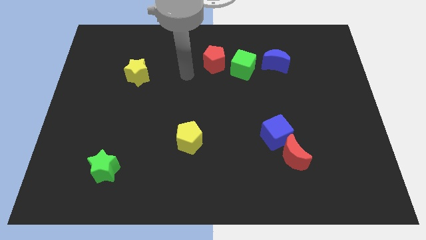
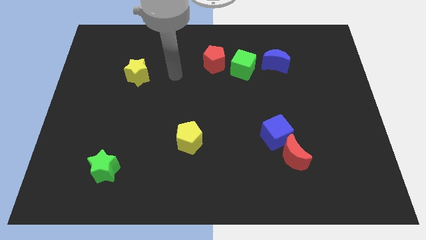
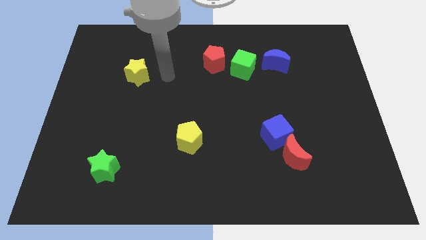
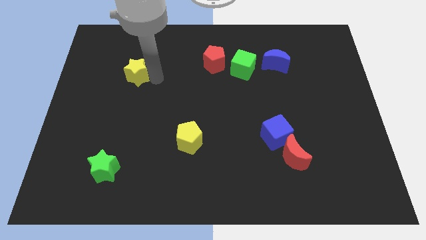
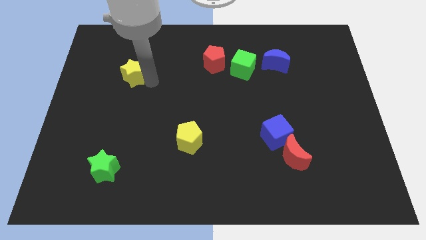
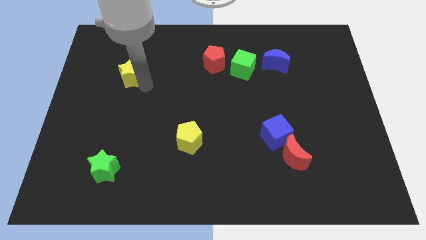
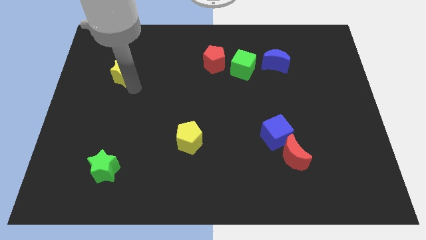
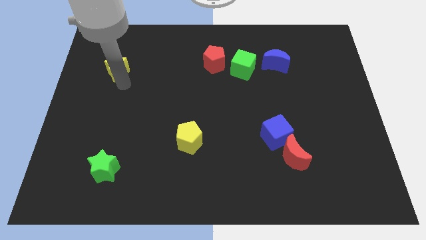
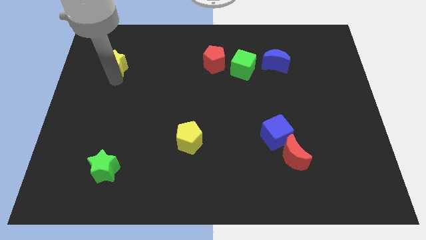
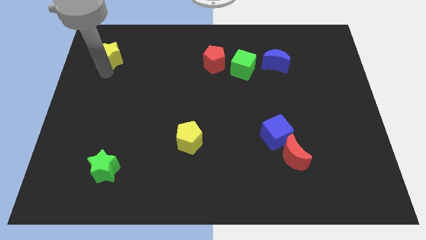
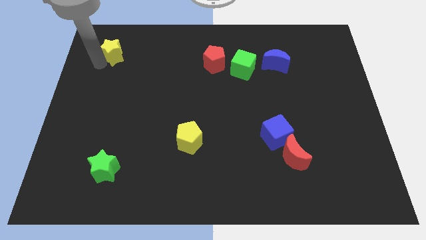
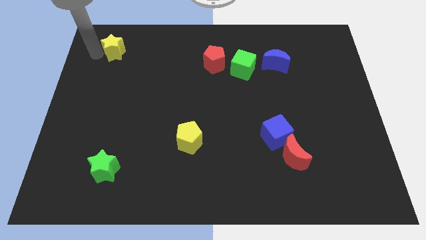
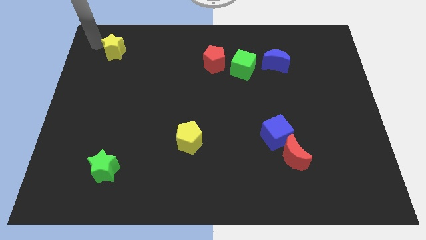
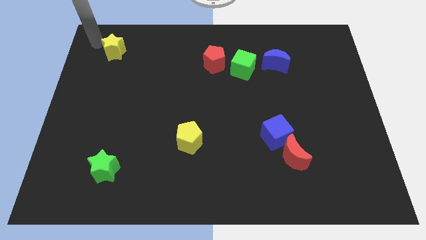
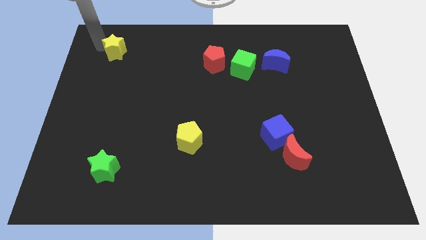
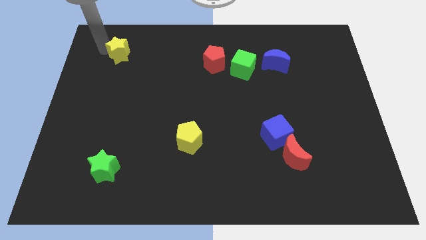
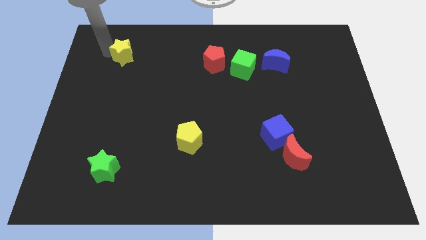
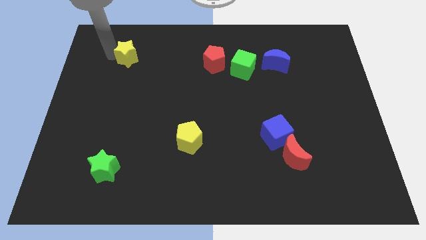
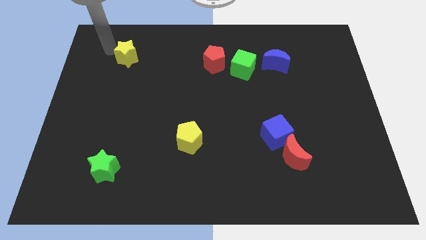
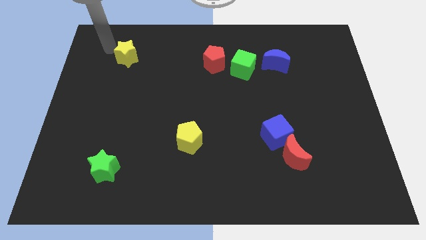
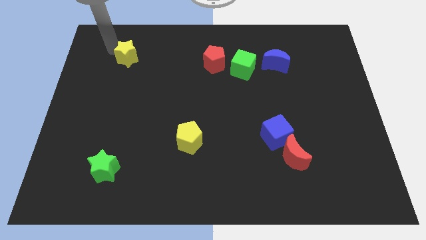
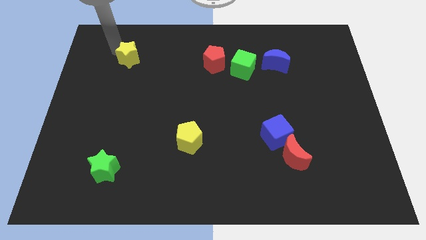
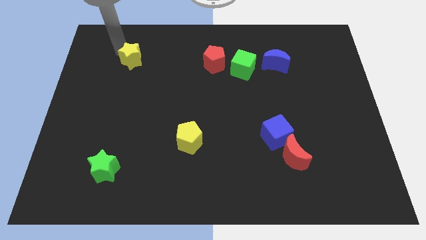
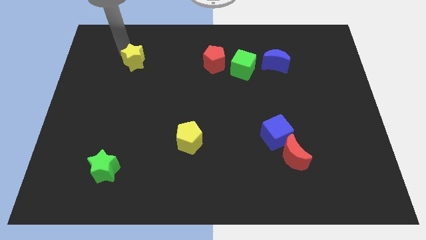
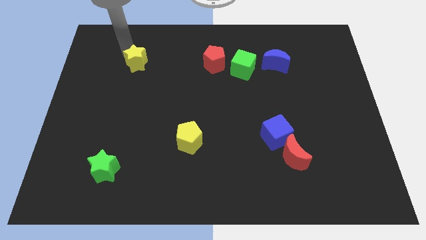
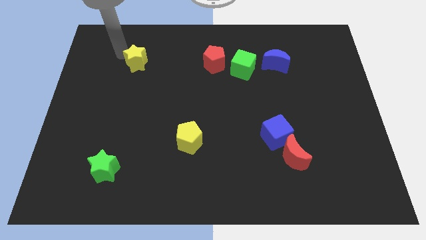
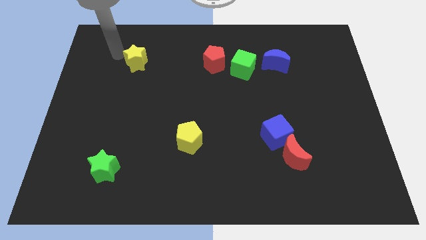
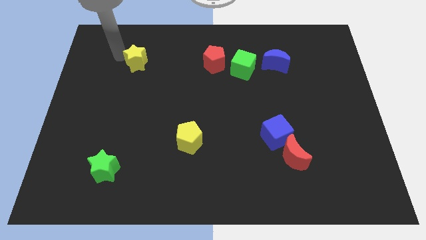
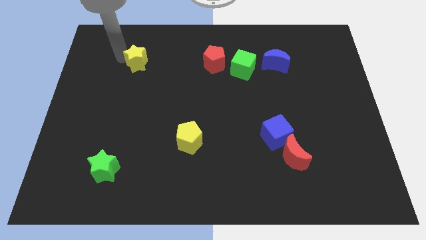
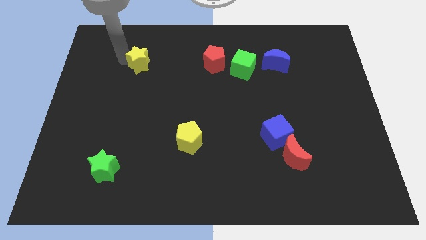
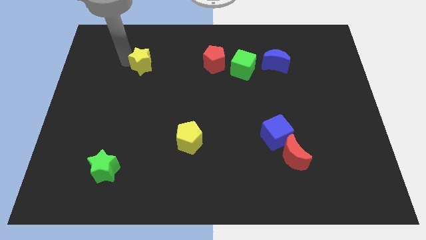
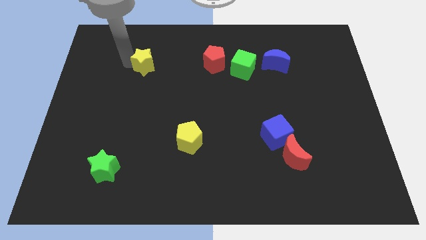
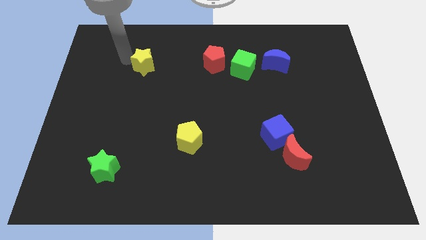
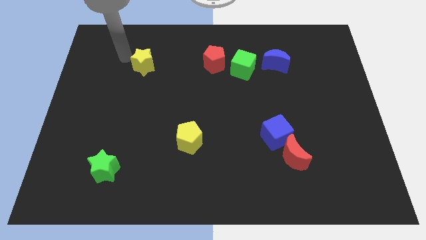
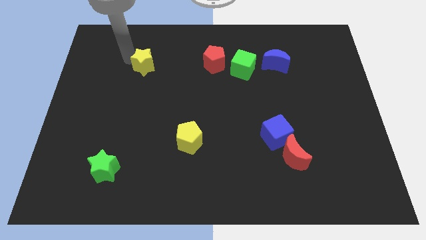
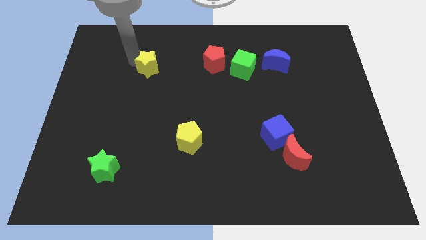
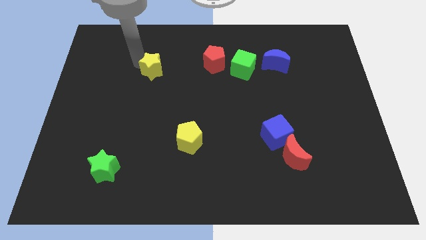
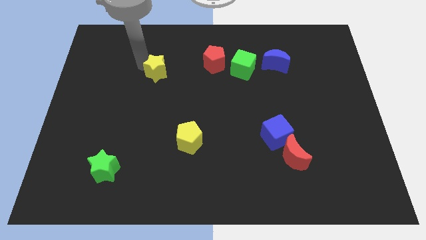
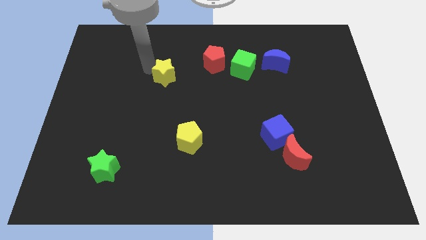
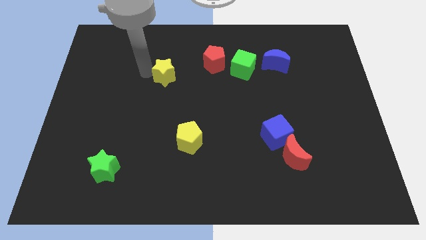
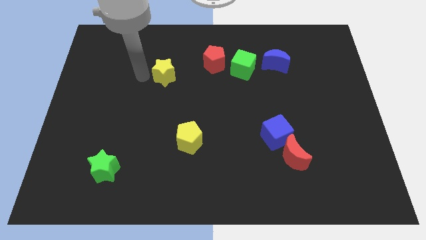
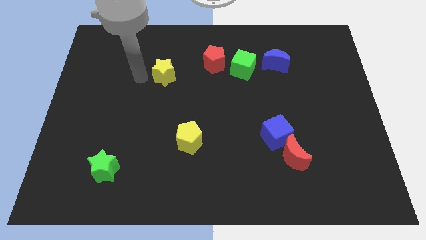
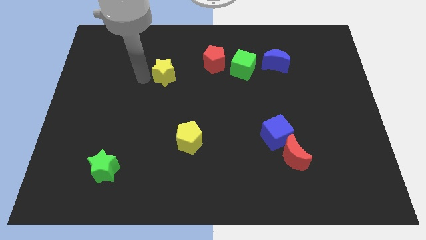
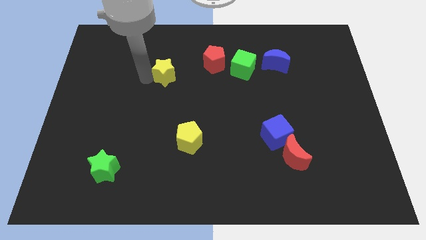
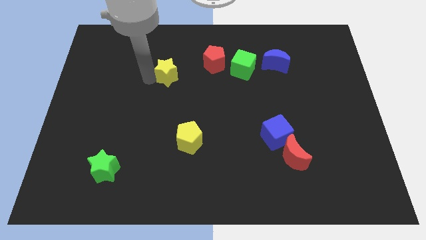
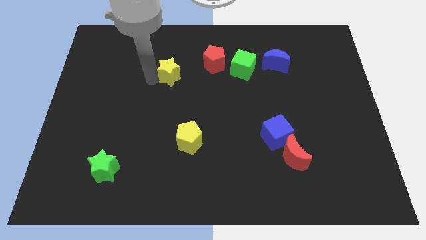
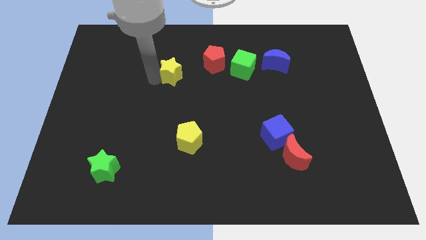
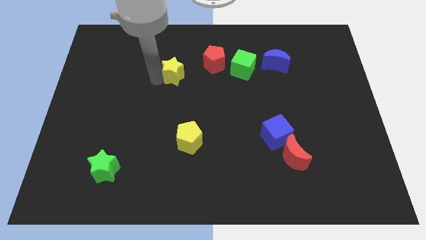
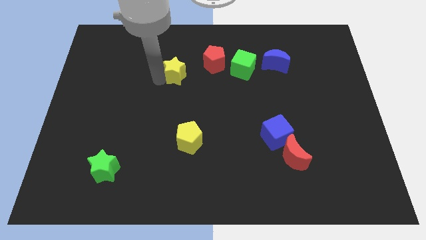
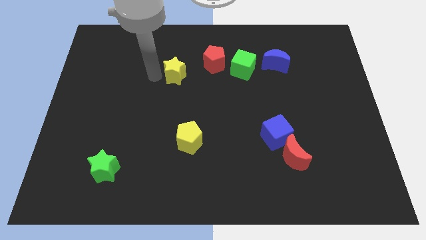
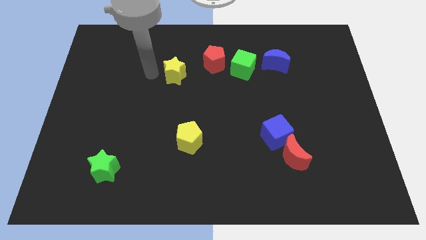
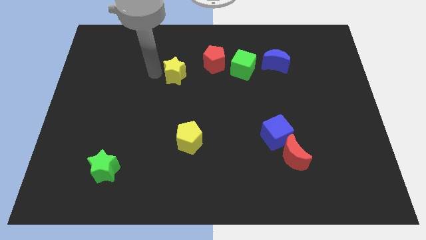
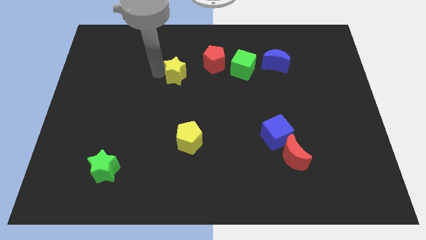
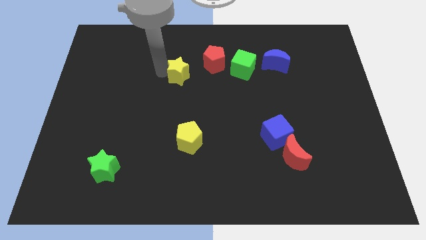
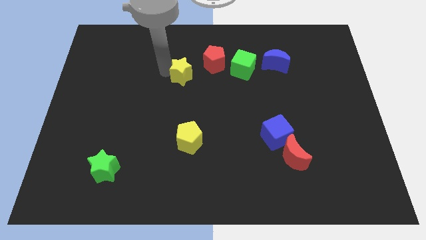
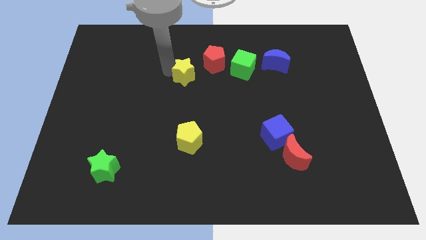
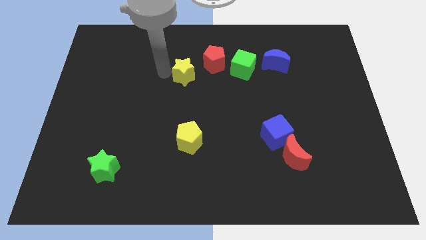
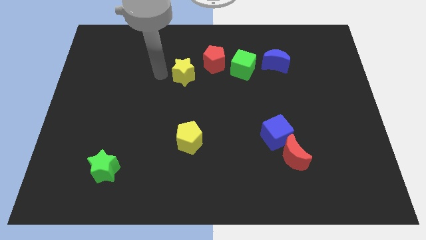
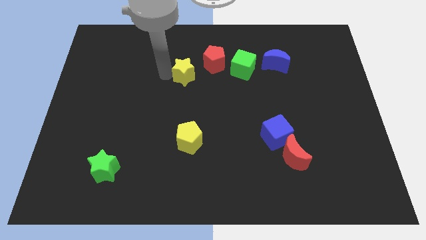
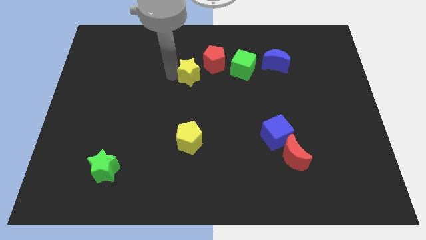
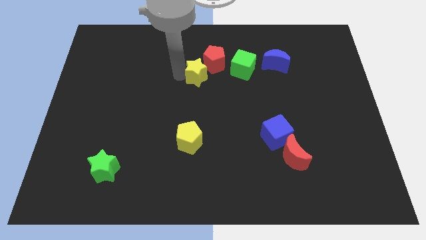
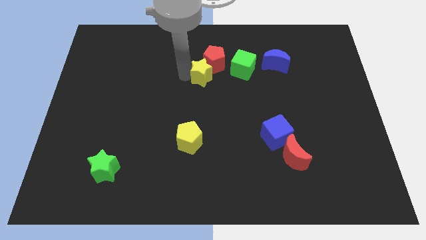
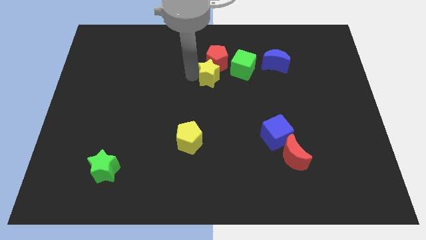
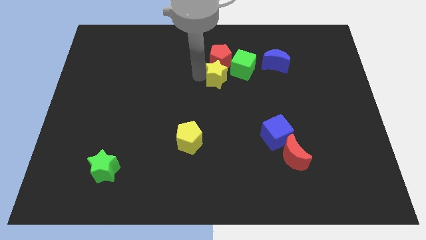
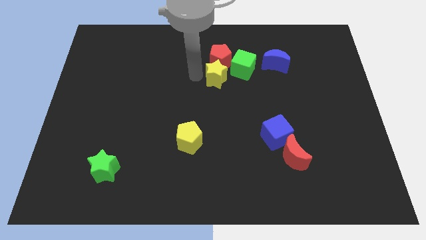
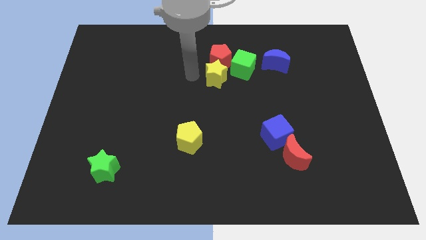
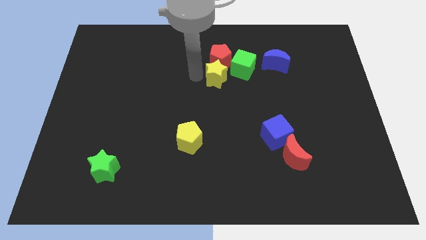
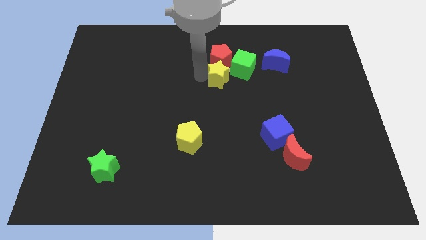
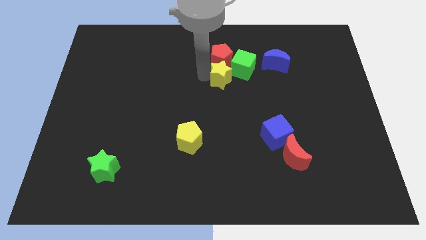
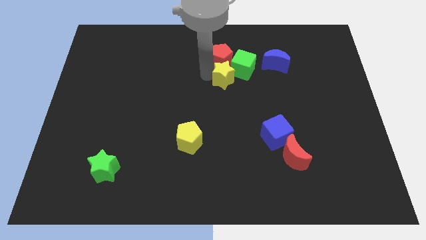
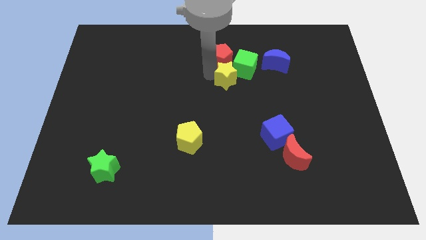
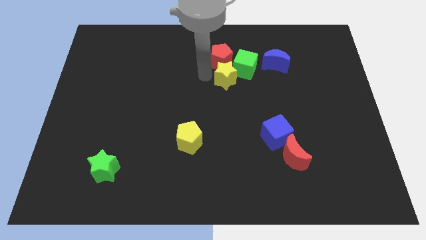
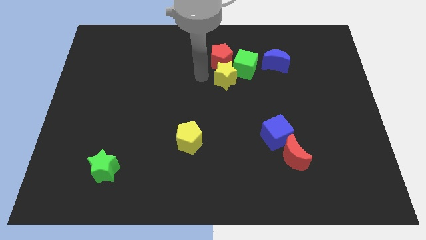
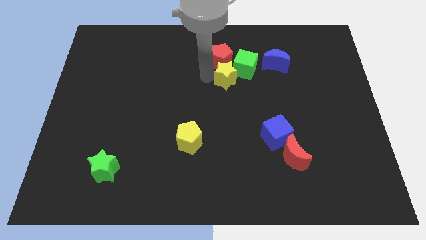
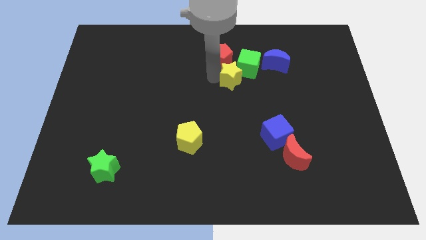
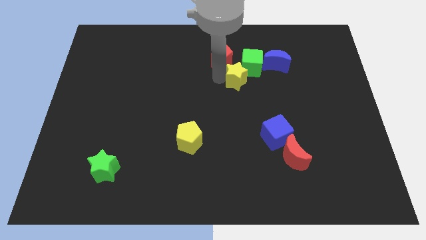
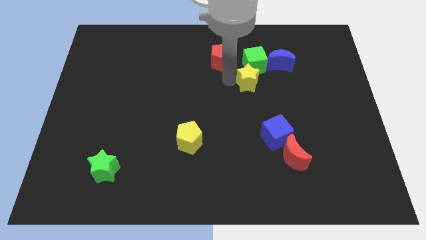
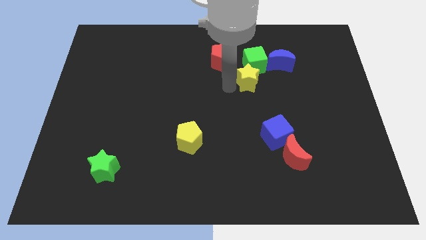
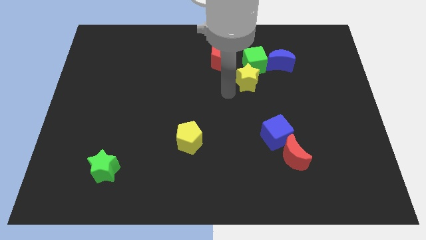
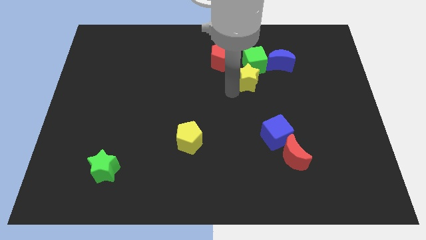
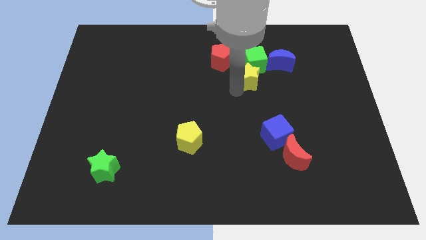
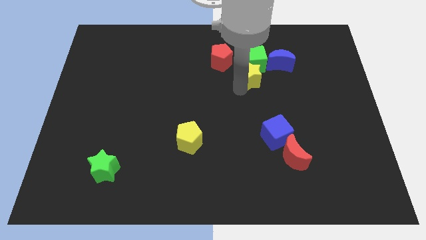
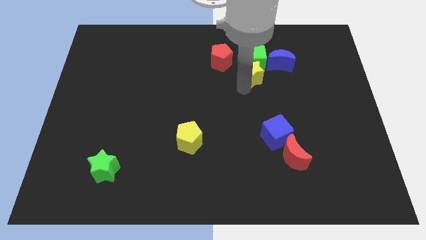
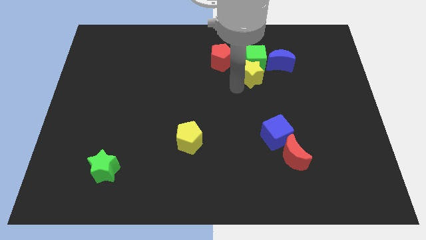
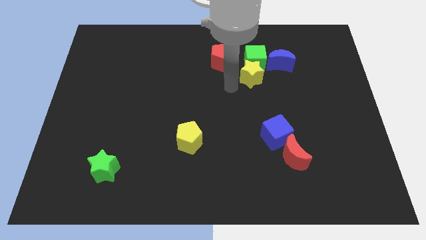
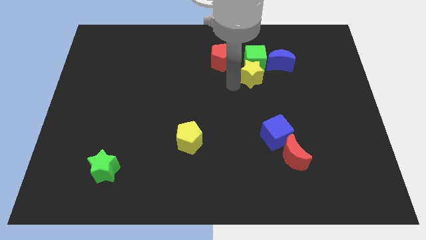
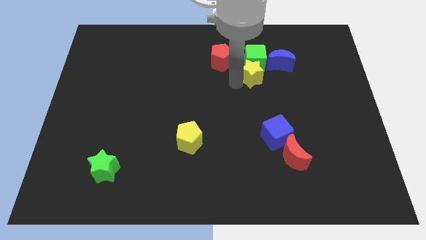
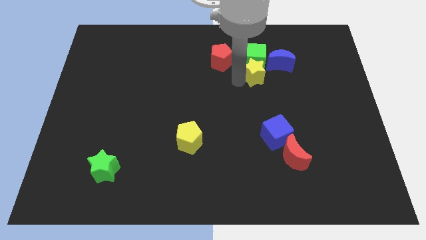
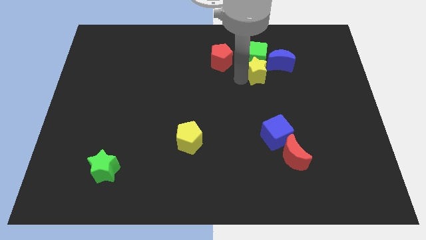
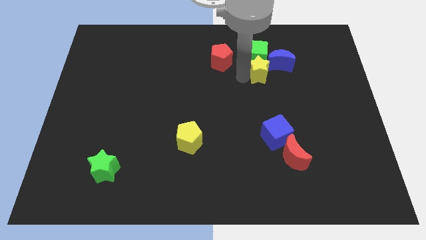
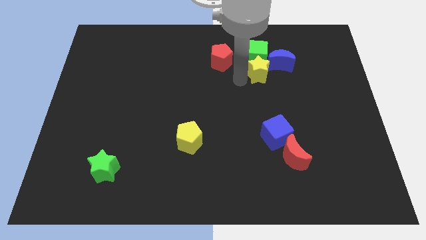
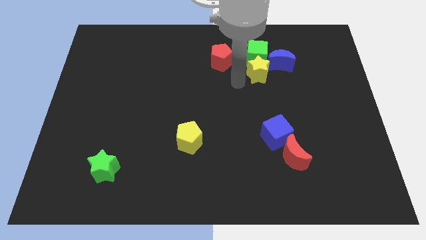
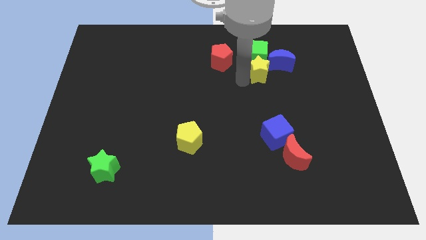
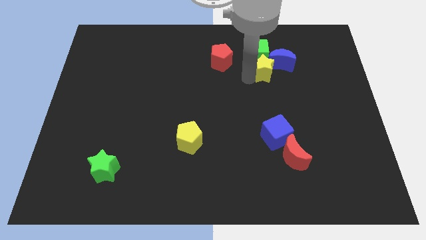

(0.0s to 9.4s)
move the yellow star close to the blue moon
